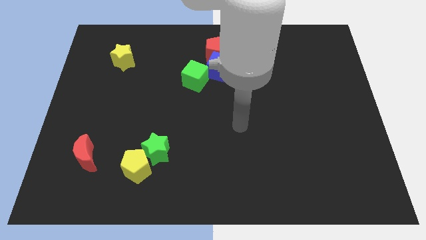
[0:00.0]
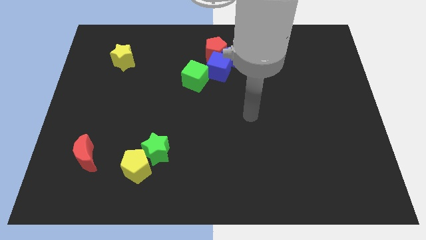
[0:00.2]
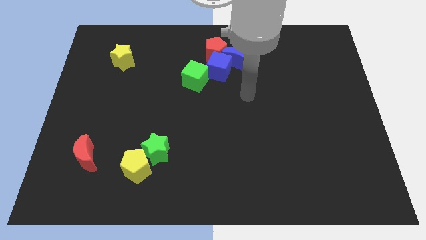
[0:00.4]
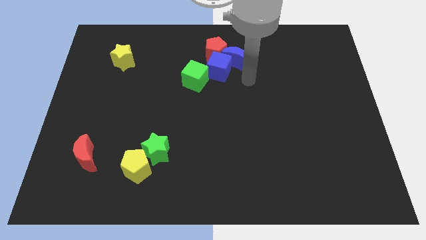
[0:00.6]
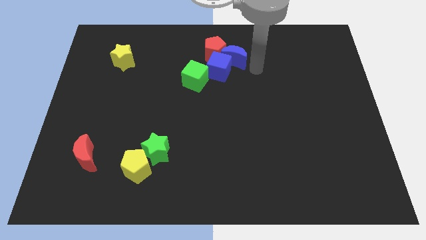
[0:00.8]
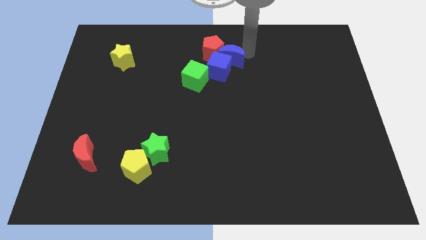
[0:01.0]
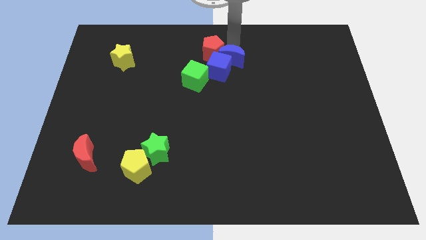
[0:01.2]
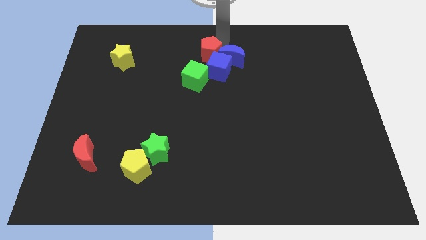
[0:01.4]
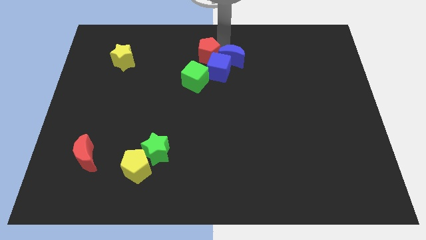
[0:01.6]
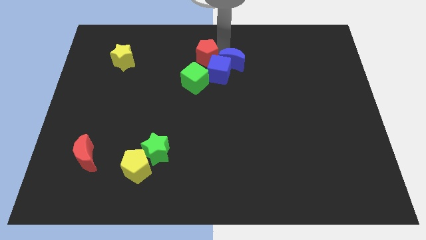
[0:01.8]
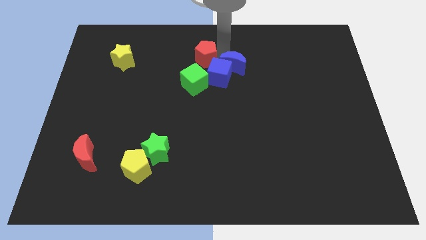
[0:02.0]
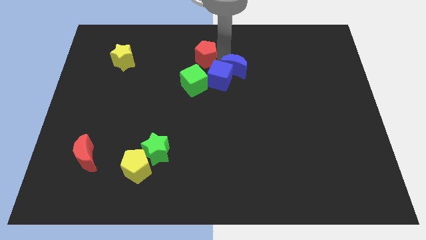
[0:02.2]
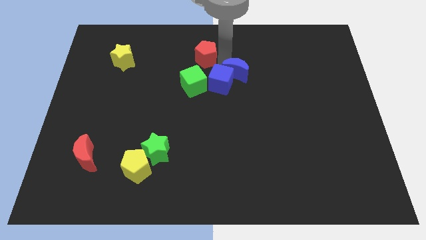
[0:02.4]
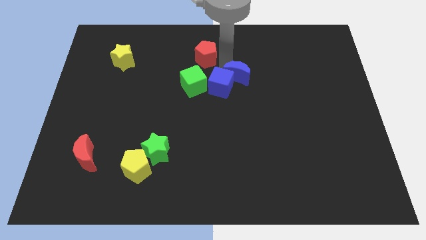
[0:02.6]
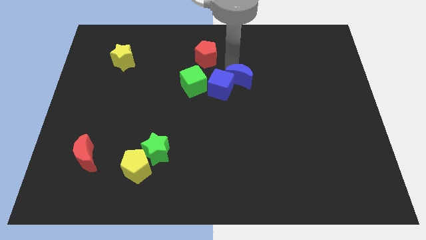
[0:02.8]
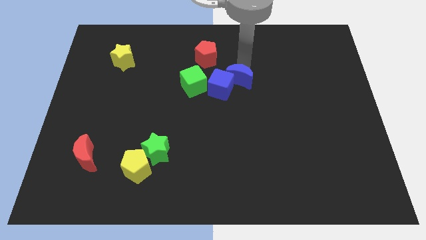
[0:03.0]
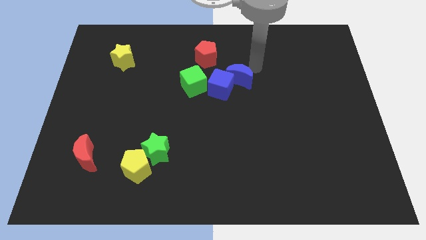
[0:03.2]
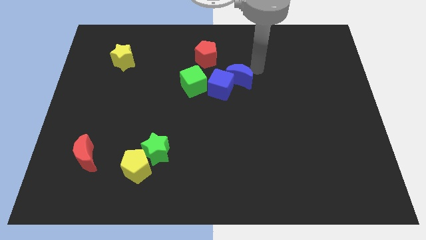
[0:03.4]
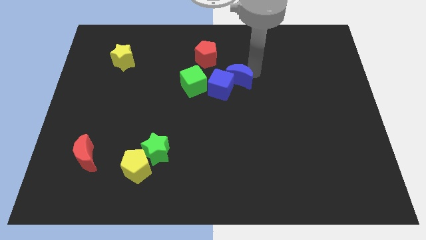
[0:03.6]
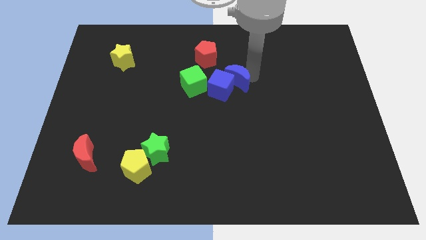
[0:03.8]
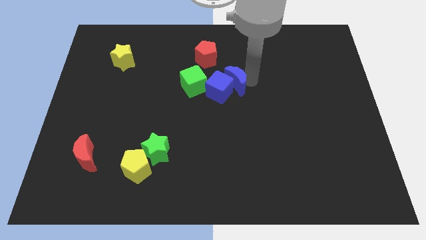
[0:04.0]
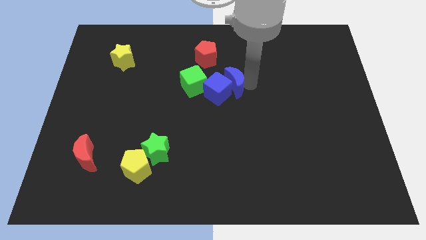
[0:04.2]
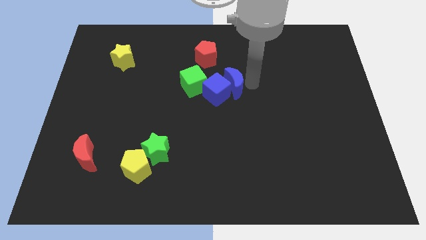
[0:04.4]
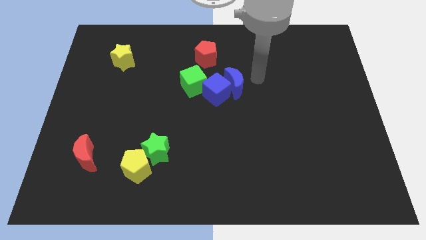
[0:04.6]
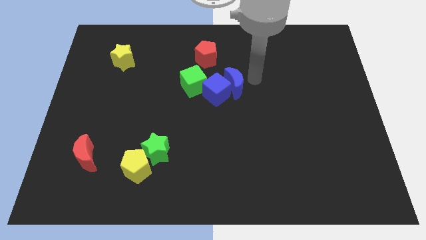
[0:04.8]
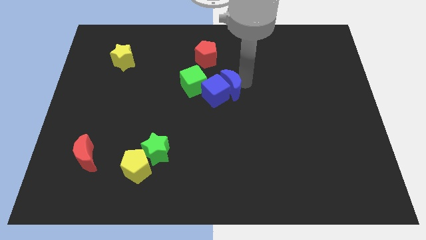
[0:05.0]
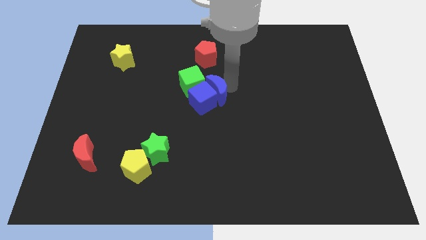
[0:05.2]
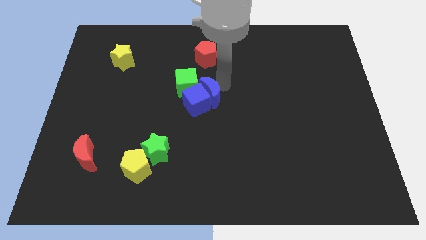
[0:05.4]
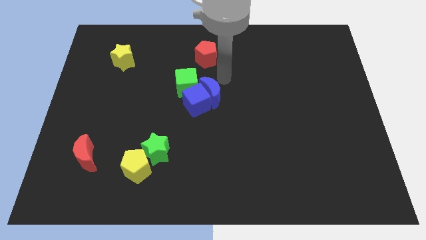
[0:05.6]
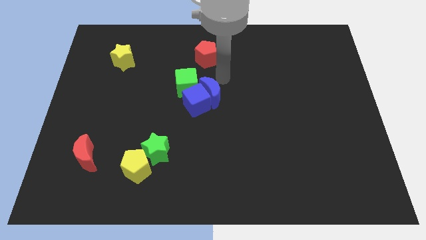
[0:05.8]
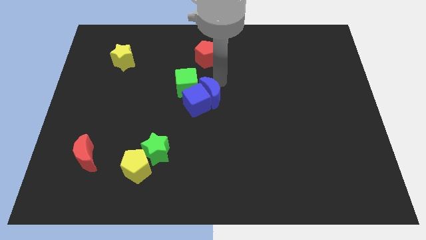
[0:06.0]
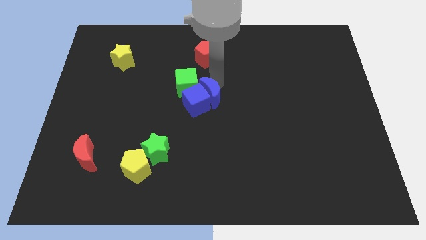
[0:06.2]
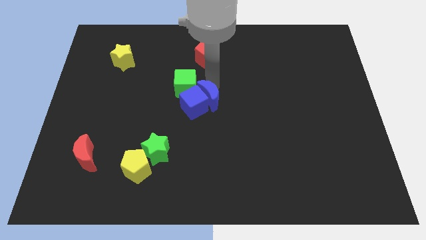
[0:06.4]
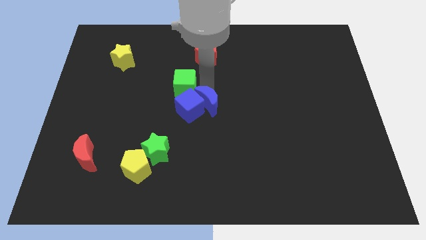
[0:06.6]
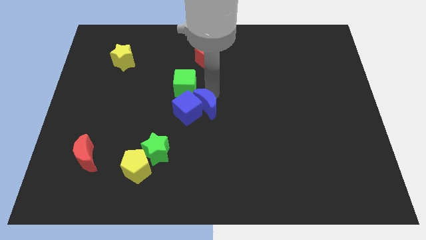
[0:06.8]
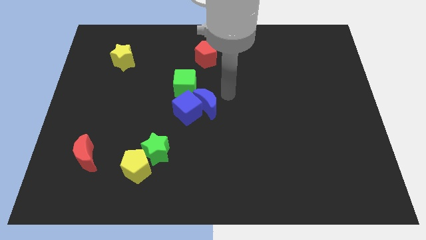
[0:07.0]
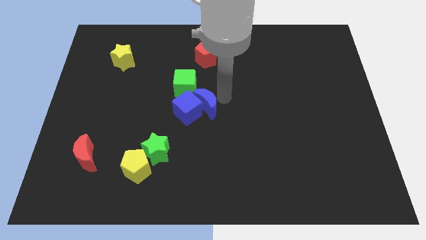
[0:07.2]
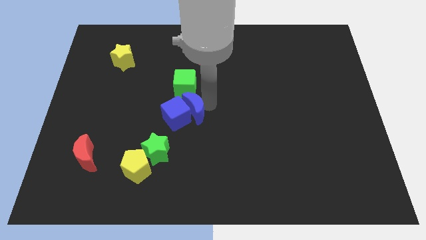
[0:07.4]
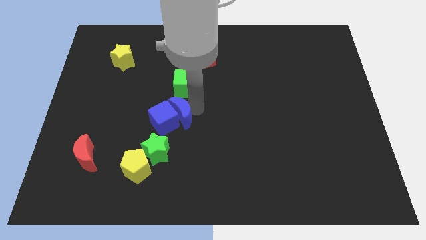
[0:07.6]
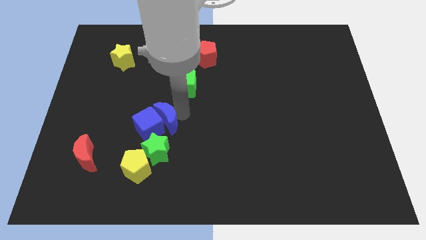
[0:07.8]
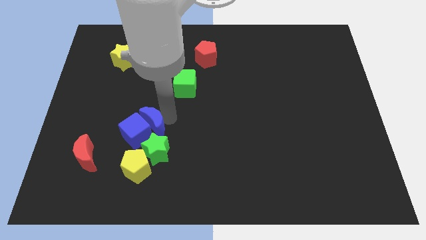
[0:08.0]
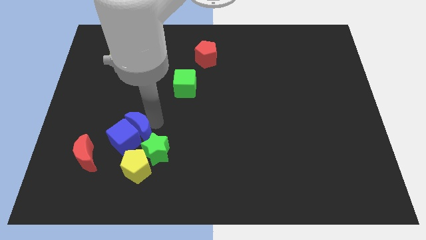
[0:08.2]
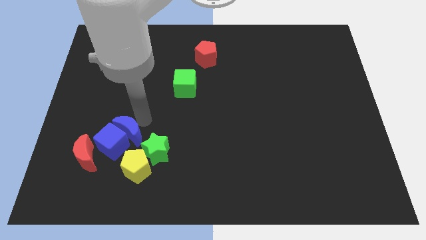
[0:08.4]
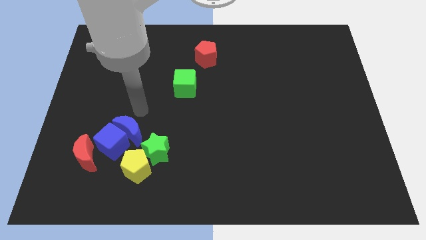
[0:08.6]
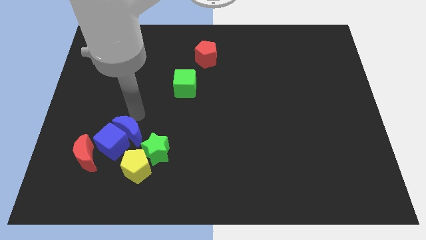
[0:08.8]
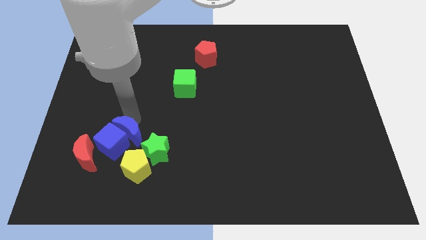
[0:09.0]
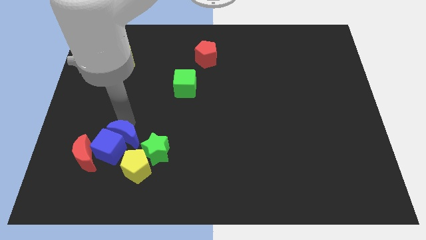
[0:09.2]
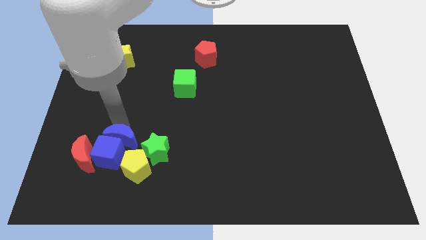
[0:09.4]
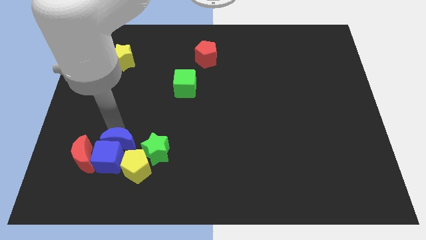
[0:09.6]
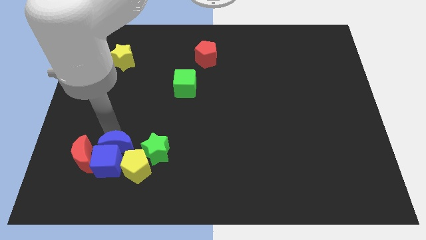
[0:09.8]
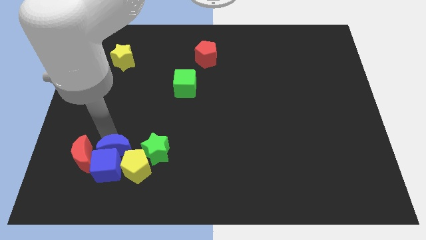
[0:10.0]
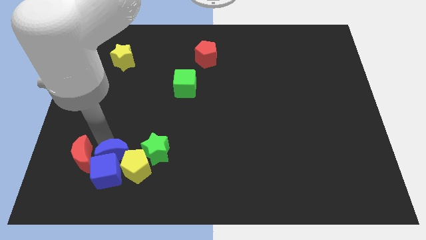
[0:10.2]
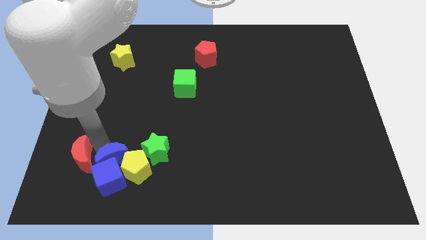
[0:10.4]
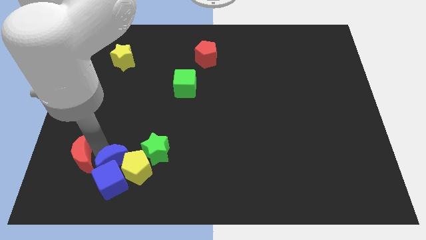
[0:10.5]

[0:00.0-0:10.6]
push the blue moon to the bottom left side of the green star

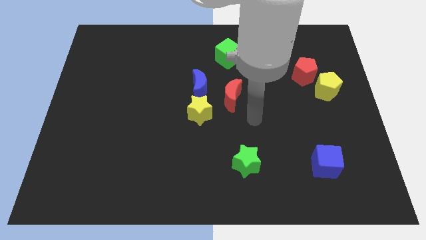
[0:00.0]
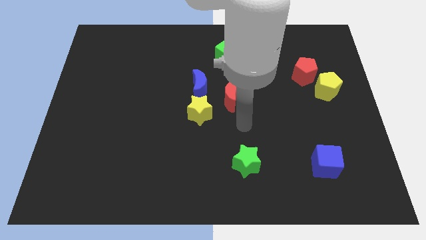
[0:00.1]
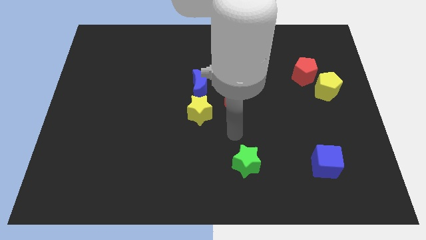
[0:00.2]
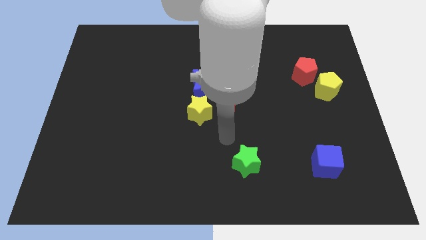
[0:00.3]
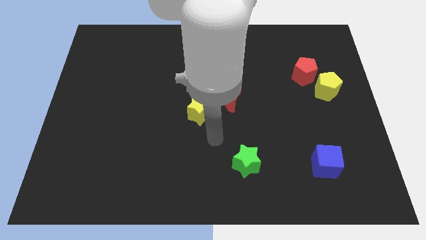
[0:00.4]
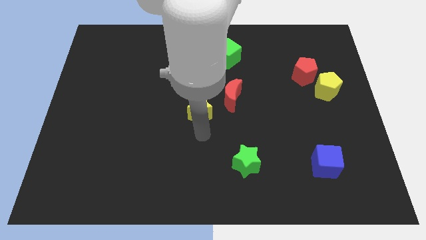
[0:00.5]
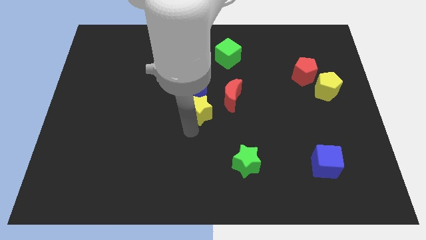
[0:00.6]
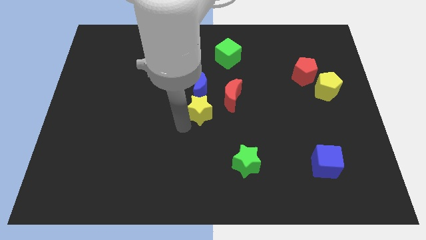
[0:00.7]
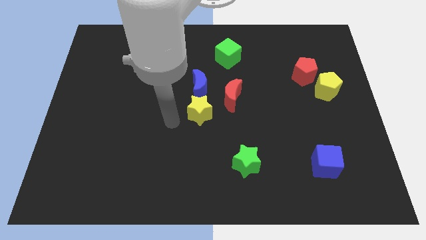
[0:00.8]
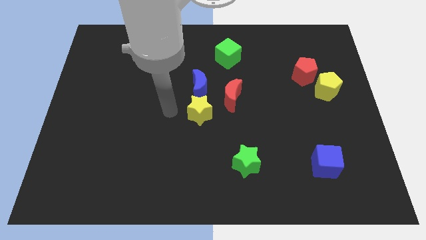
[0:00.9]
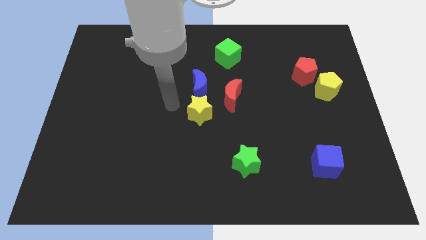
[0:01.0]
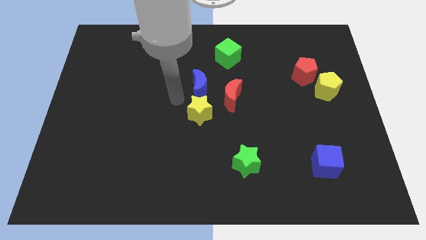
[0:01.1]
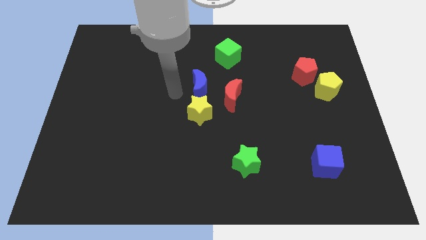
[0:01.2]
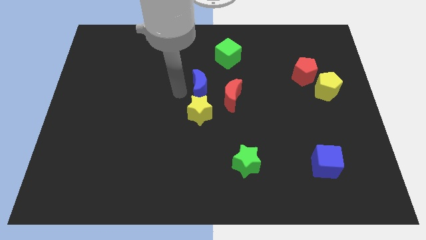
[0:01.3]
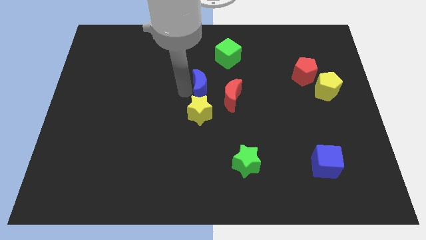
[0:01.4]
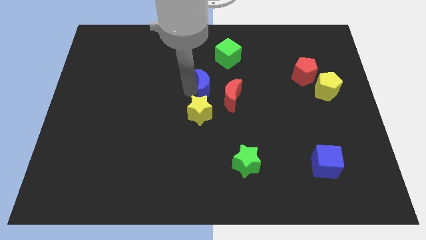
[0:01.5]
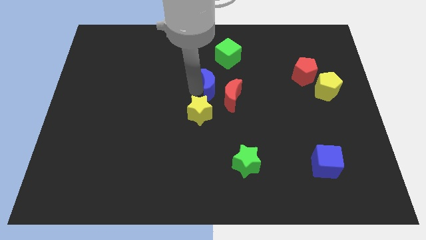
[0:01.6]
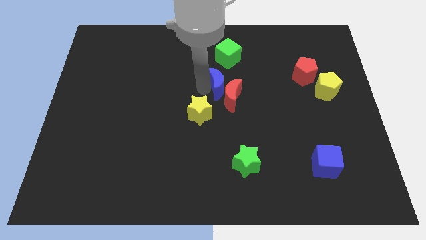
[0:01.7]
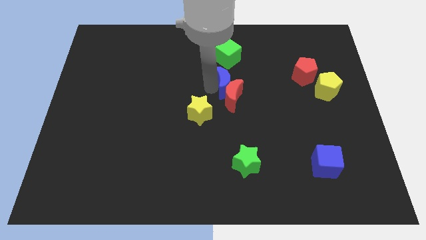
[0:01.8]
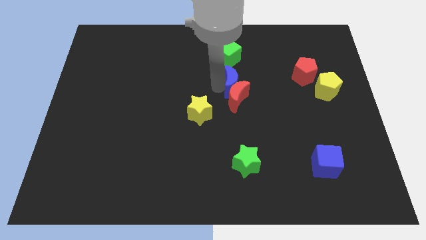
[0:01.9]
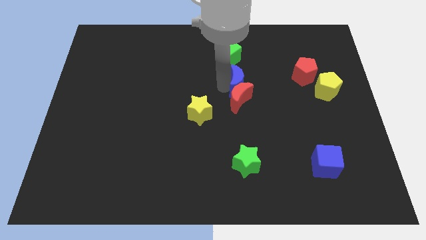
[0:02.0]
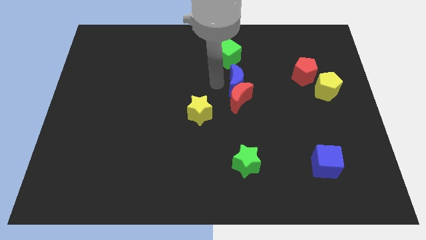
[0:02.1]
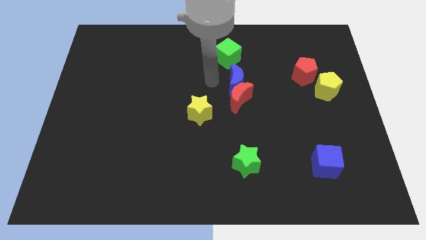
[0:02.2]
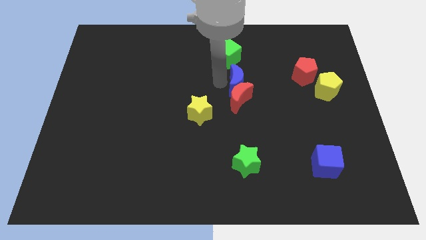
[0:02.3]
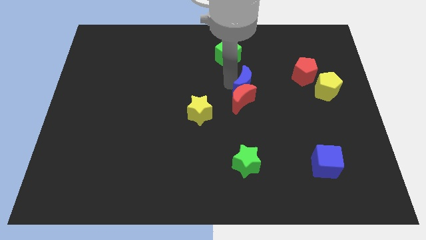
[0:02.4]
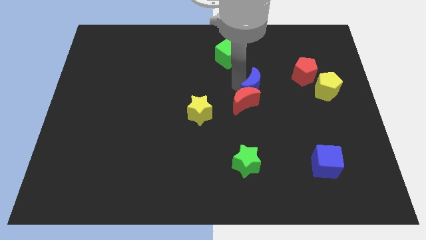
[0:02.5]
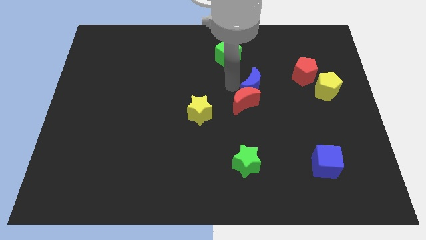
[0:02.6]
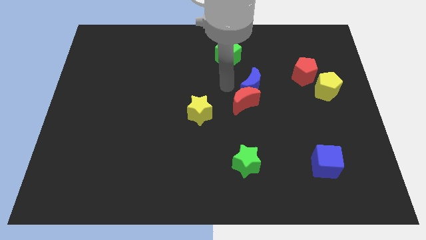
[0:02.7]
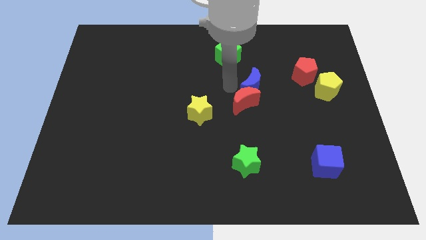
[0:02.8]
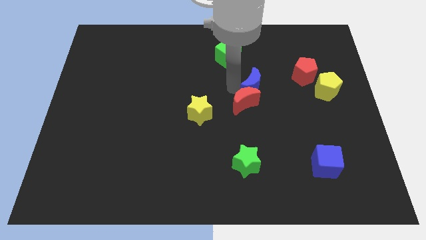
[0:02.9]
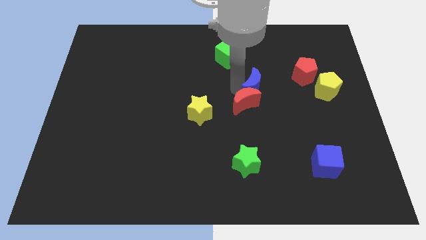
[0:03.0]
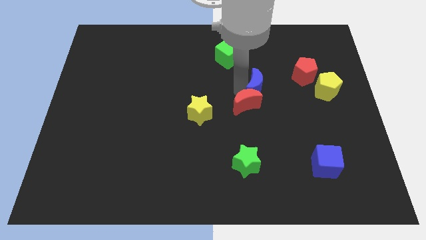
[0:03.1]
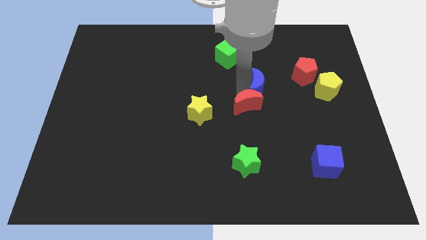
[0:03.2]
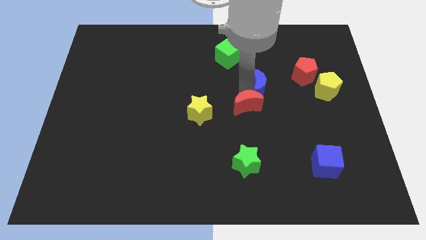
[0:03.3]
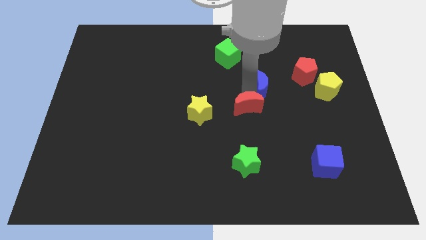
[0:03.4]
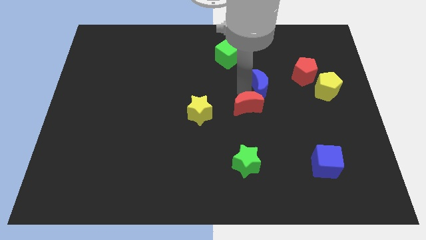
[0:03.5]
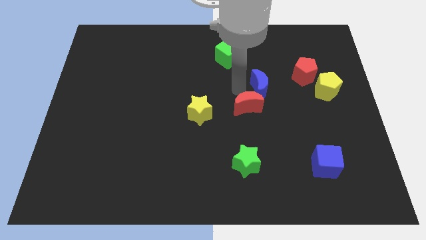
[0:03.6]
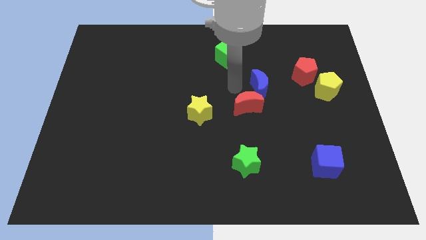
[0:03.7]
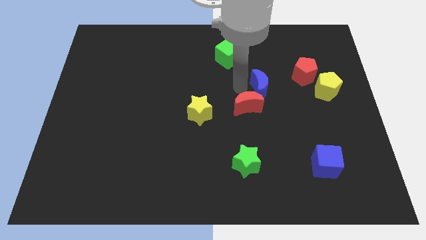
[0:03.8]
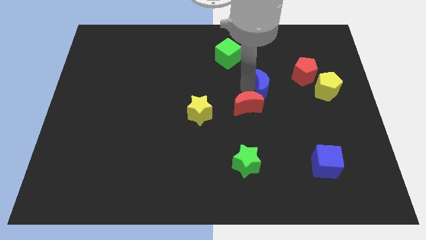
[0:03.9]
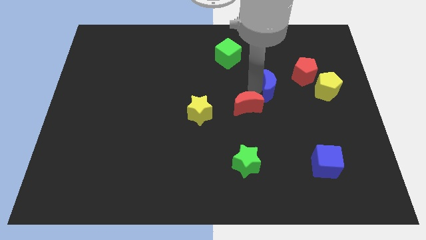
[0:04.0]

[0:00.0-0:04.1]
slide the blue moon diagonally down and to the left of the red pentagon
